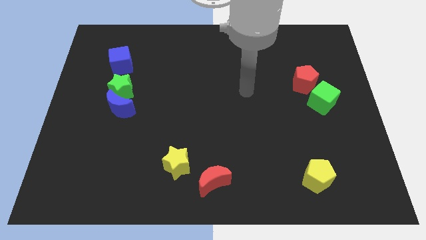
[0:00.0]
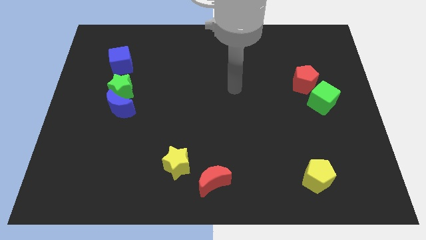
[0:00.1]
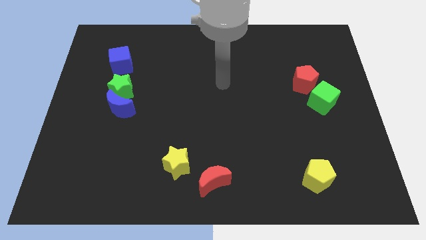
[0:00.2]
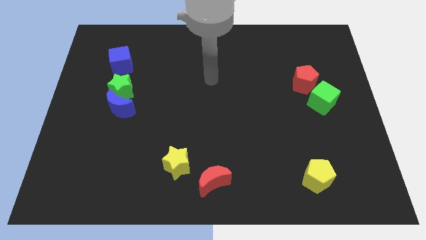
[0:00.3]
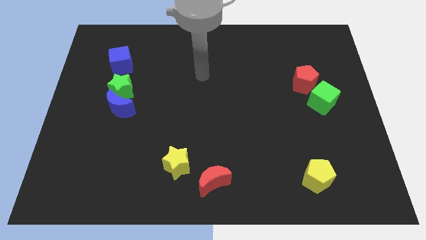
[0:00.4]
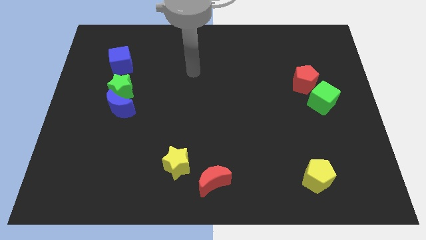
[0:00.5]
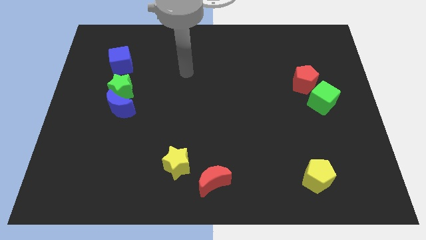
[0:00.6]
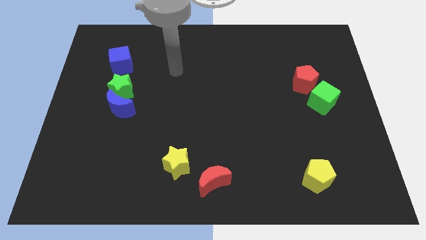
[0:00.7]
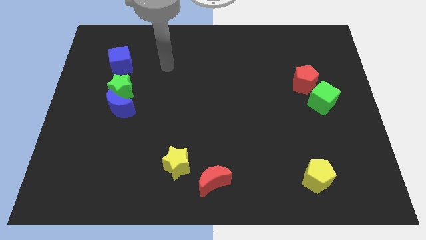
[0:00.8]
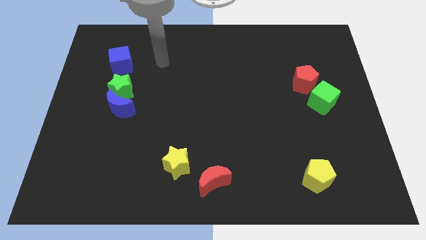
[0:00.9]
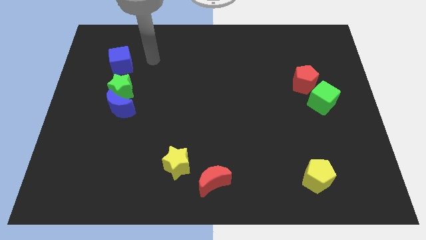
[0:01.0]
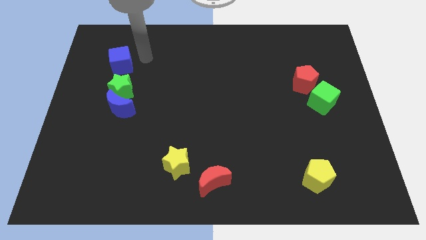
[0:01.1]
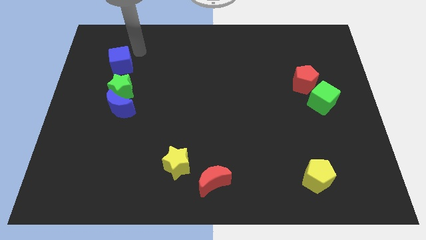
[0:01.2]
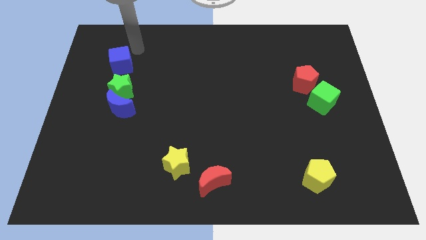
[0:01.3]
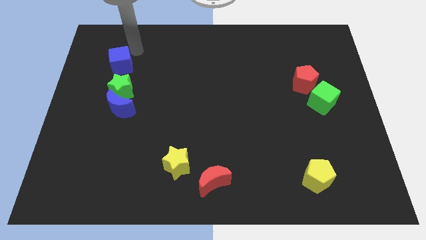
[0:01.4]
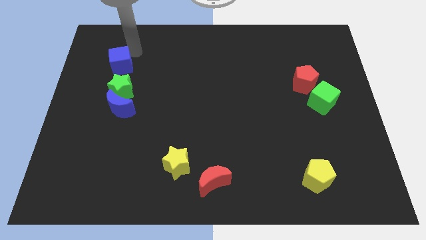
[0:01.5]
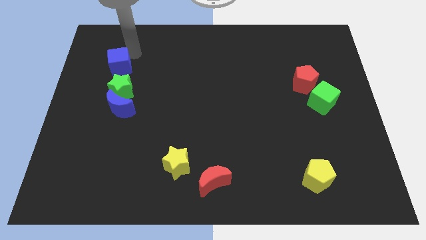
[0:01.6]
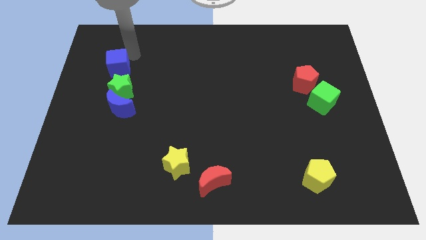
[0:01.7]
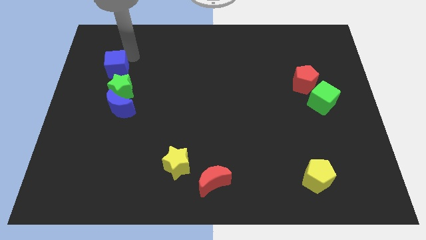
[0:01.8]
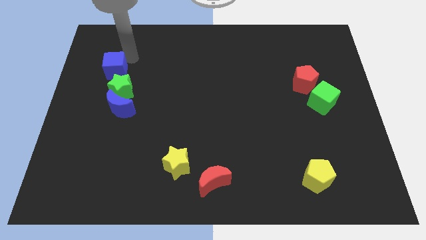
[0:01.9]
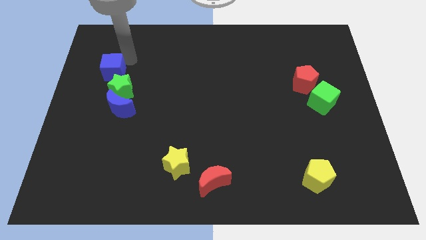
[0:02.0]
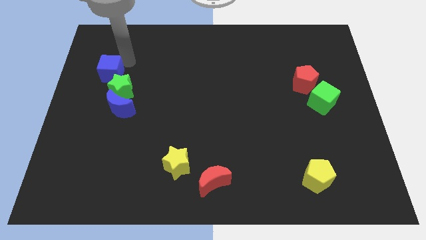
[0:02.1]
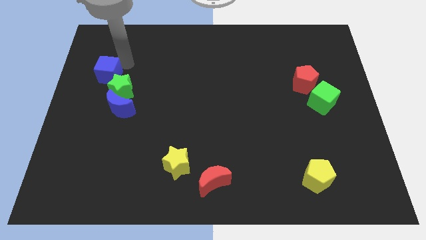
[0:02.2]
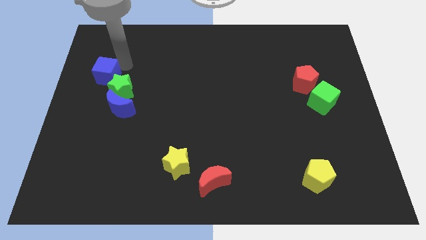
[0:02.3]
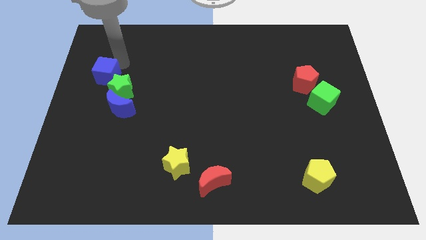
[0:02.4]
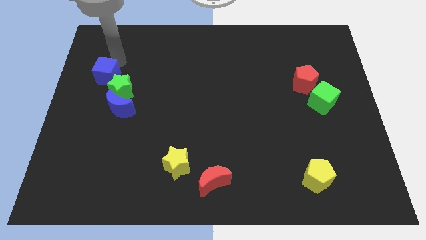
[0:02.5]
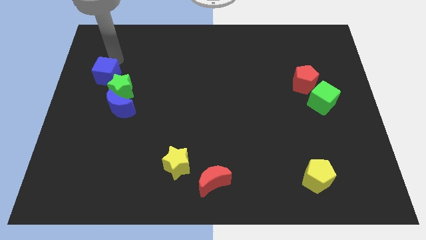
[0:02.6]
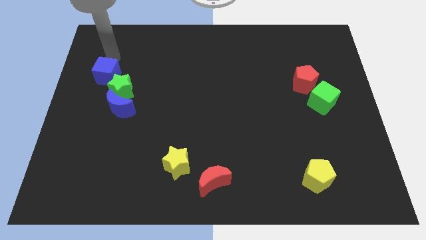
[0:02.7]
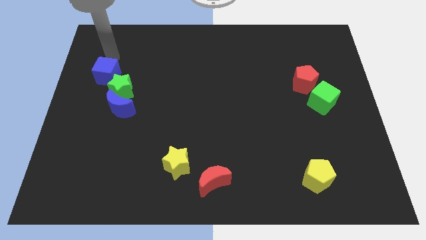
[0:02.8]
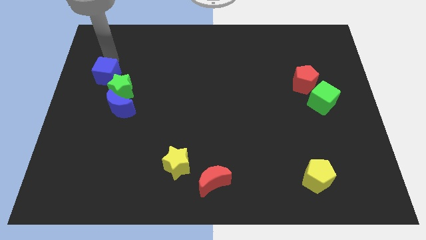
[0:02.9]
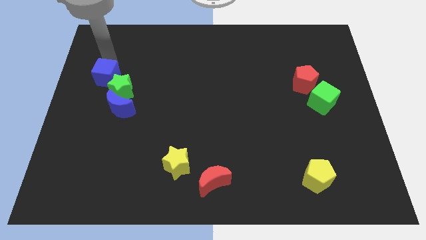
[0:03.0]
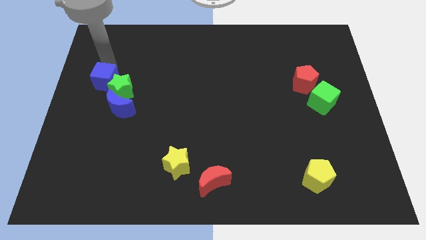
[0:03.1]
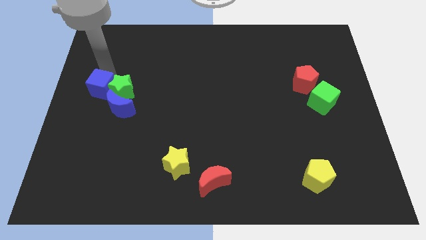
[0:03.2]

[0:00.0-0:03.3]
slide the blue cube down a bit

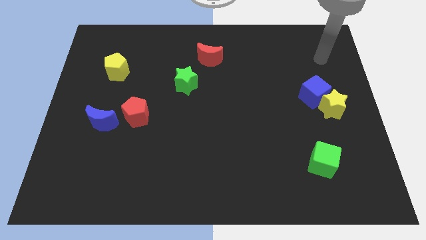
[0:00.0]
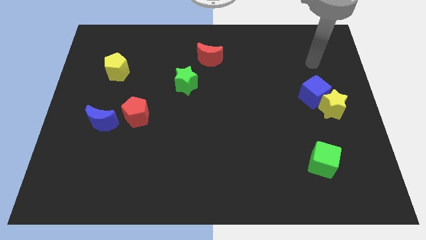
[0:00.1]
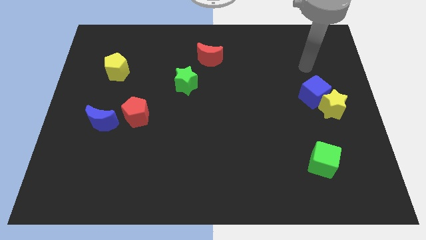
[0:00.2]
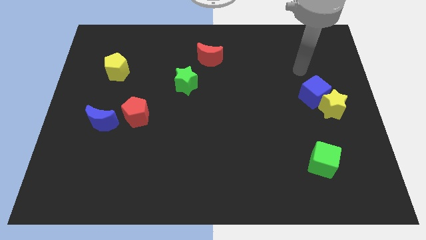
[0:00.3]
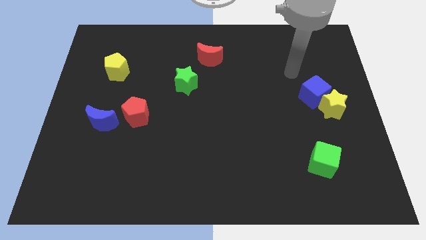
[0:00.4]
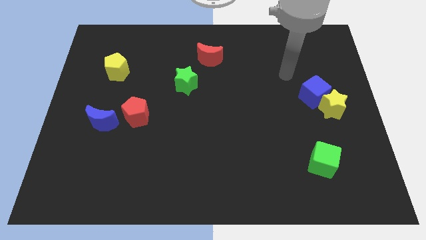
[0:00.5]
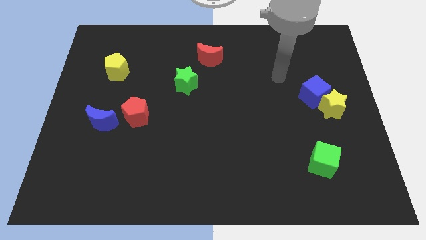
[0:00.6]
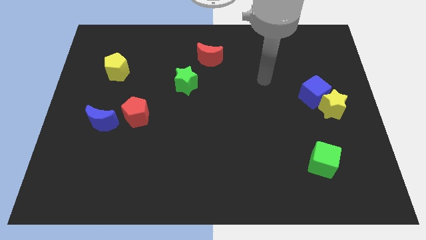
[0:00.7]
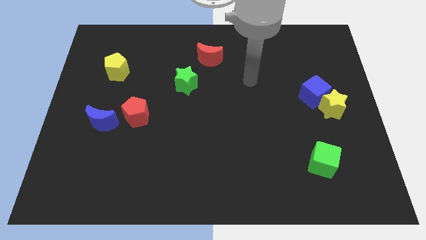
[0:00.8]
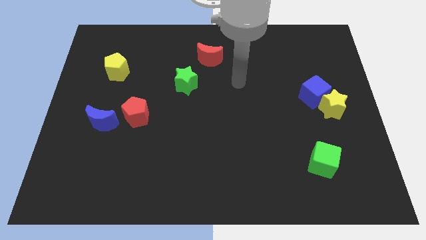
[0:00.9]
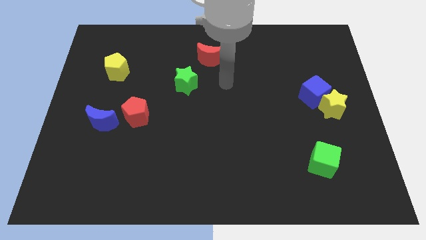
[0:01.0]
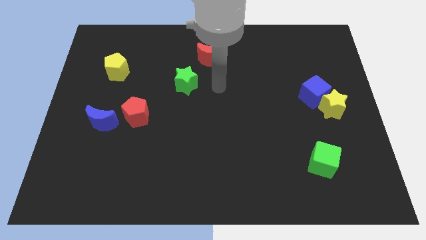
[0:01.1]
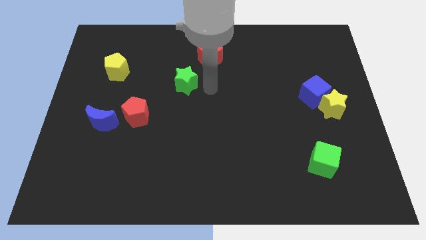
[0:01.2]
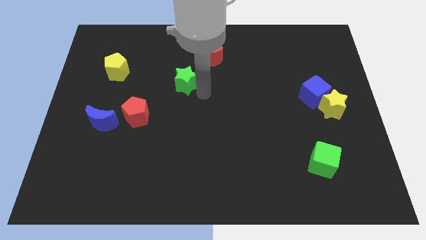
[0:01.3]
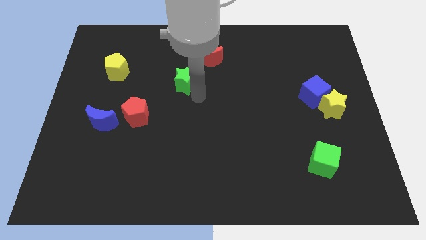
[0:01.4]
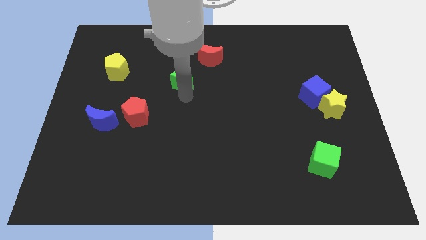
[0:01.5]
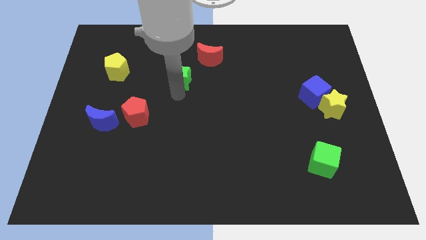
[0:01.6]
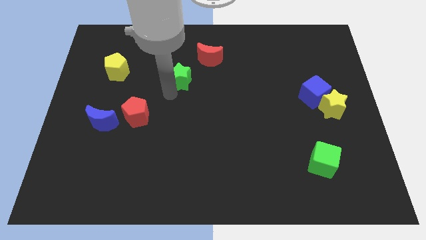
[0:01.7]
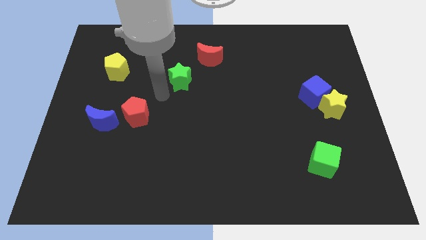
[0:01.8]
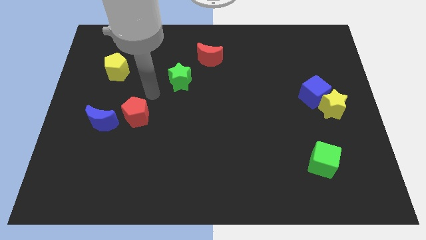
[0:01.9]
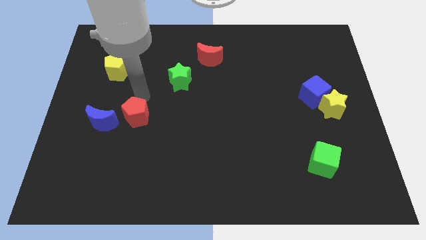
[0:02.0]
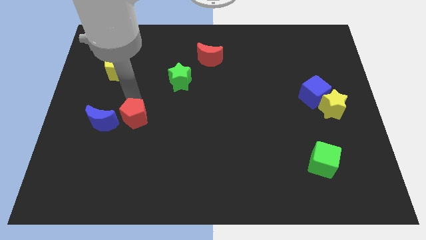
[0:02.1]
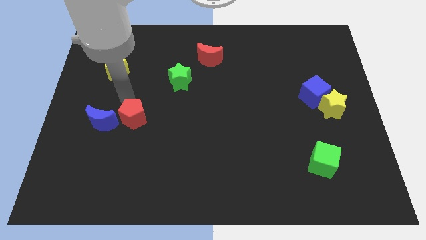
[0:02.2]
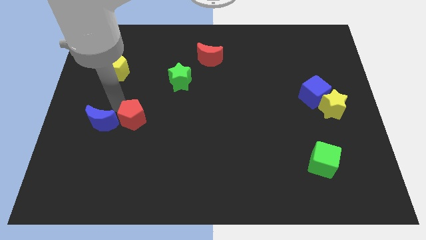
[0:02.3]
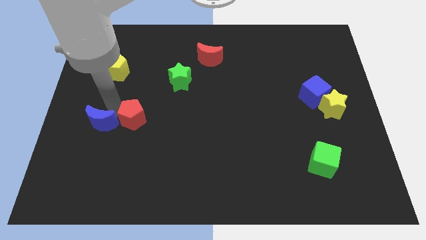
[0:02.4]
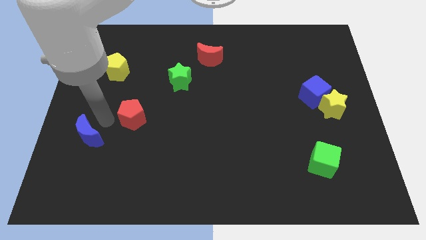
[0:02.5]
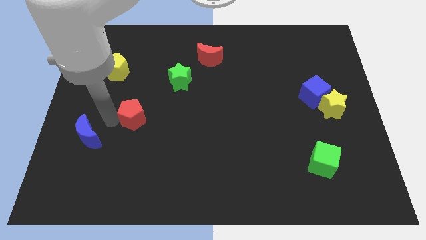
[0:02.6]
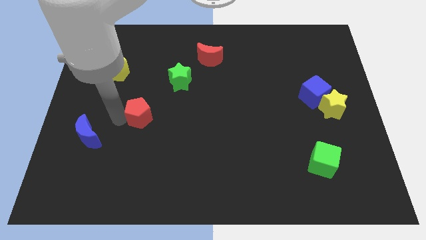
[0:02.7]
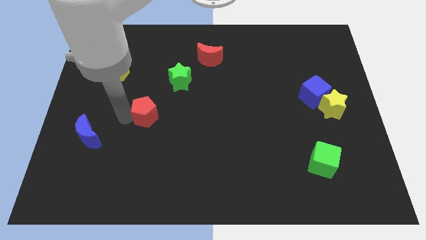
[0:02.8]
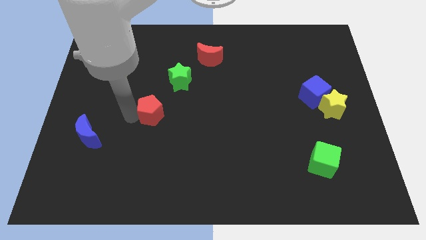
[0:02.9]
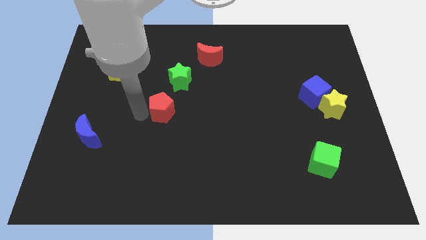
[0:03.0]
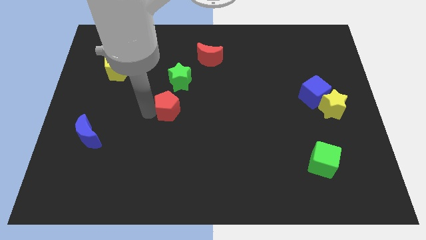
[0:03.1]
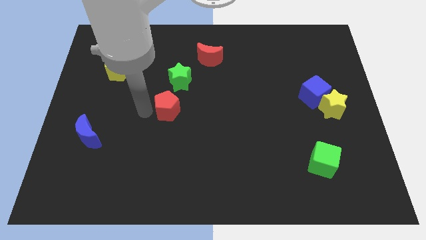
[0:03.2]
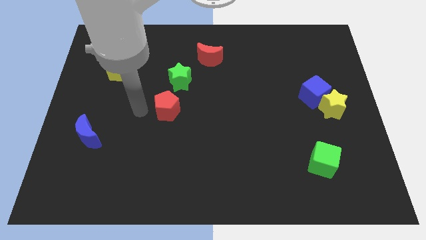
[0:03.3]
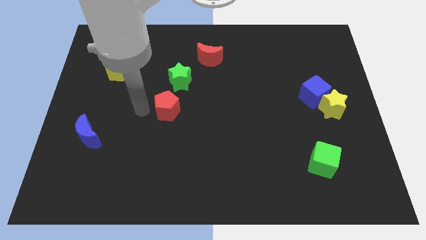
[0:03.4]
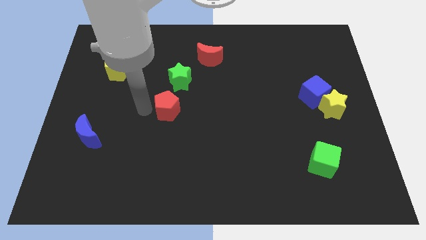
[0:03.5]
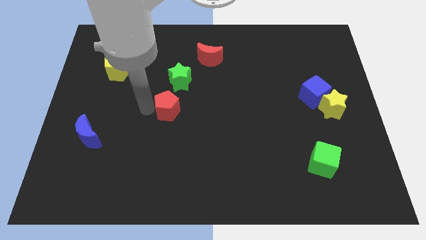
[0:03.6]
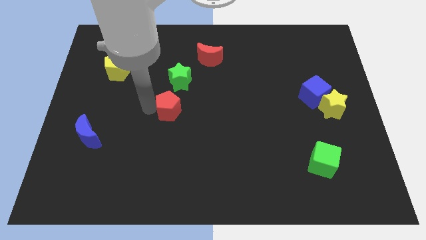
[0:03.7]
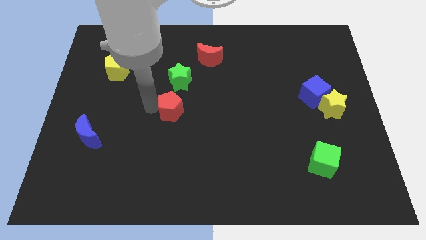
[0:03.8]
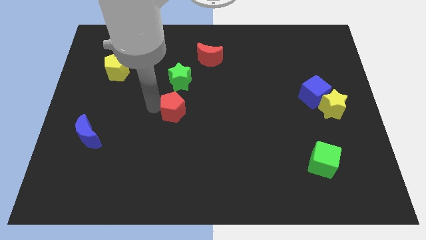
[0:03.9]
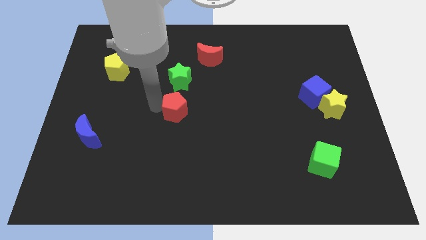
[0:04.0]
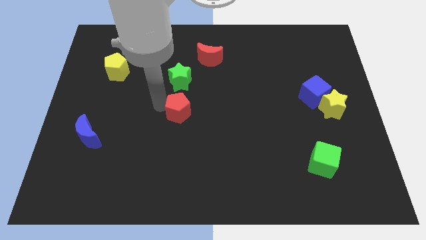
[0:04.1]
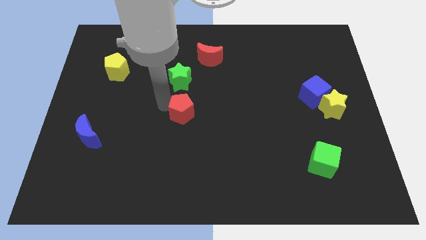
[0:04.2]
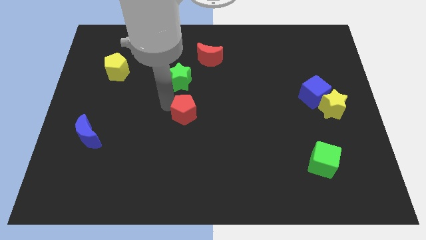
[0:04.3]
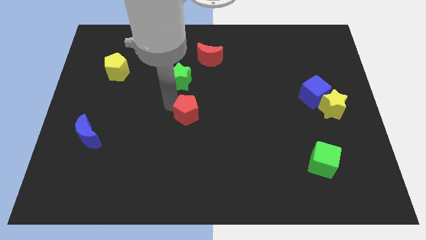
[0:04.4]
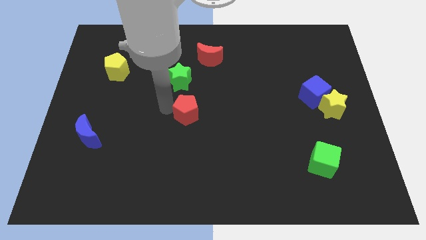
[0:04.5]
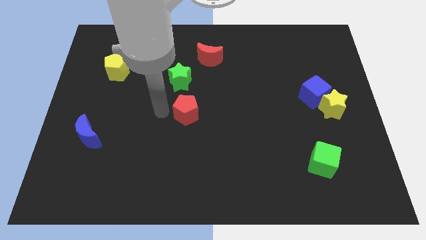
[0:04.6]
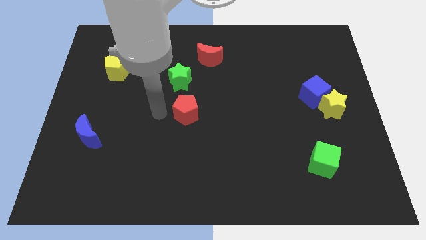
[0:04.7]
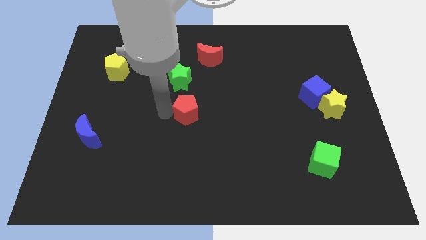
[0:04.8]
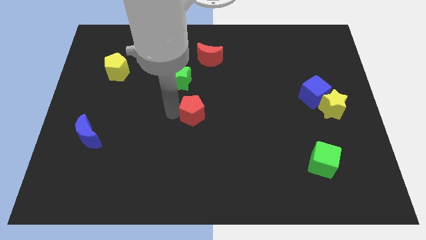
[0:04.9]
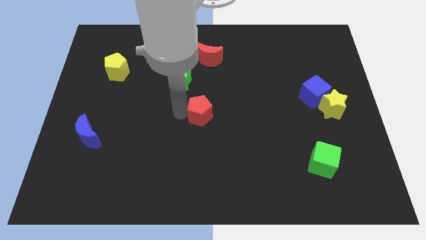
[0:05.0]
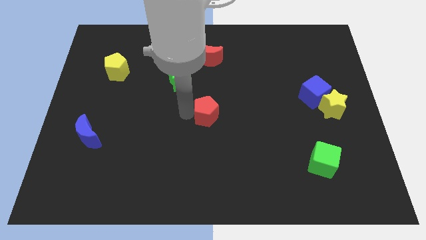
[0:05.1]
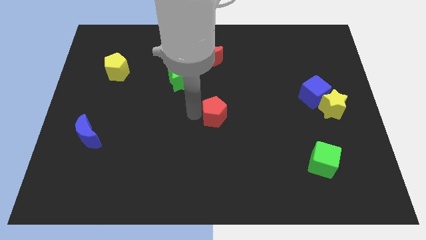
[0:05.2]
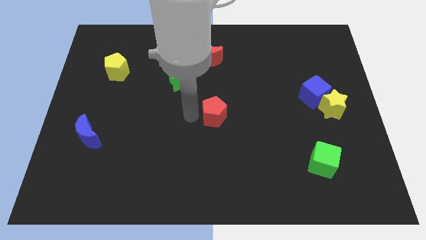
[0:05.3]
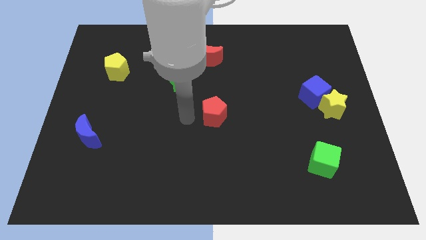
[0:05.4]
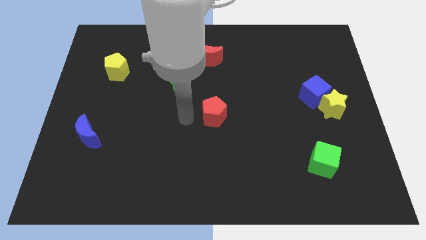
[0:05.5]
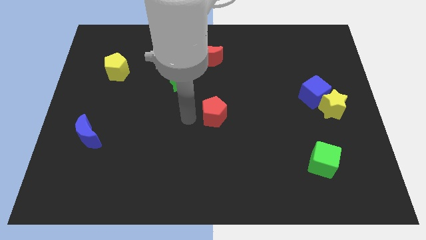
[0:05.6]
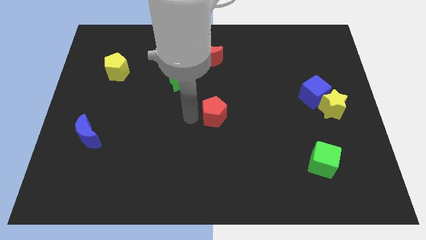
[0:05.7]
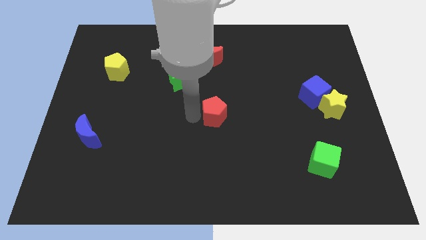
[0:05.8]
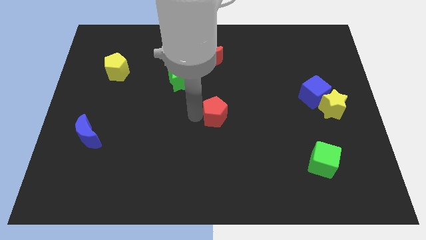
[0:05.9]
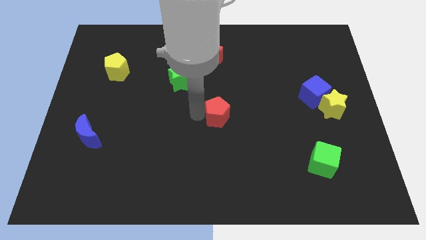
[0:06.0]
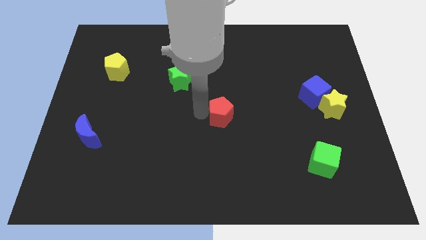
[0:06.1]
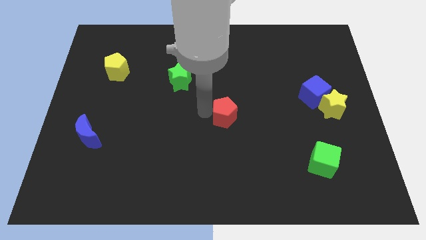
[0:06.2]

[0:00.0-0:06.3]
move the red pentagon to the right
